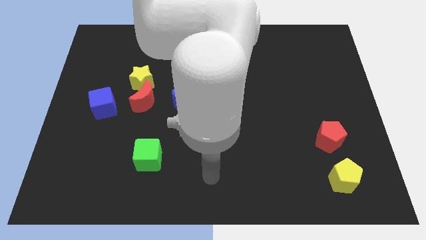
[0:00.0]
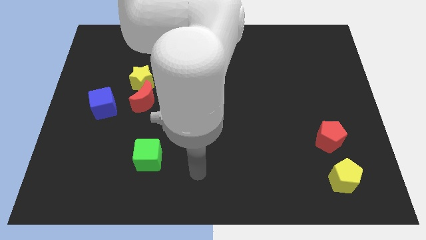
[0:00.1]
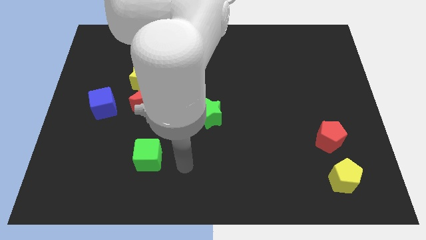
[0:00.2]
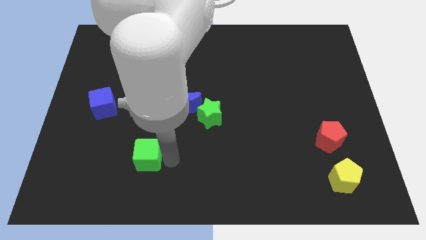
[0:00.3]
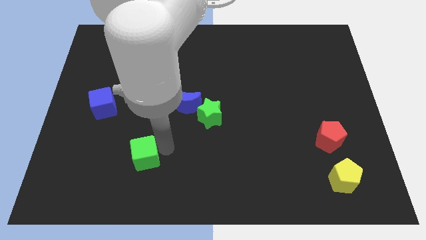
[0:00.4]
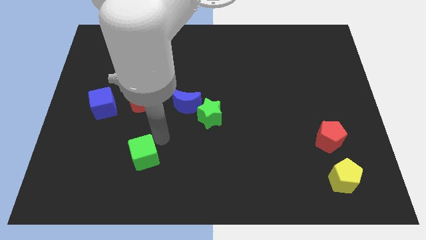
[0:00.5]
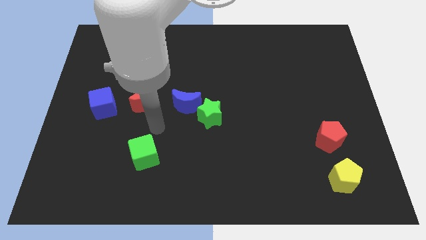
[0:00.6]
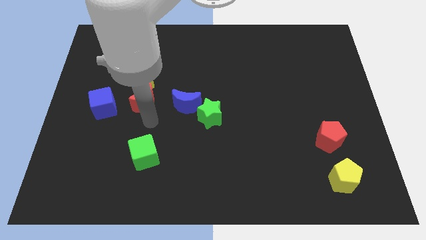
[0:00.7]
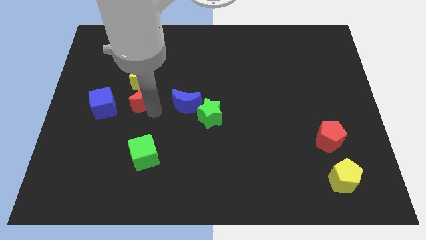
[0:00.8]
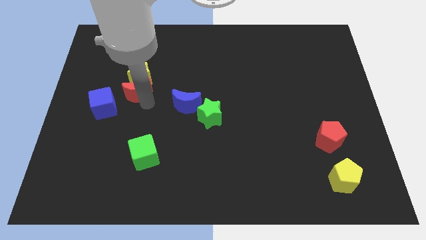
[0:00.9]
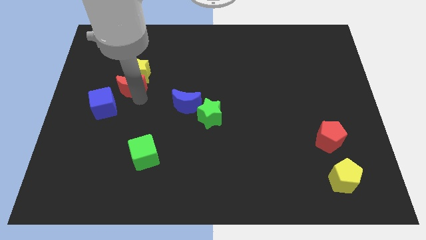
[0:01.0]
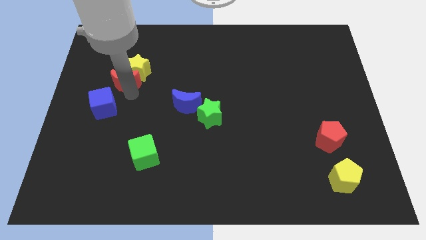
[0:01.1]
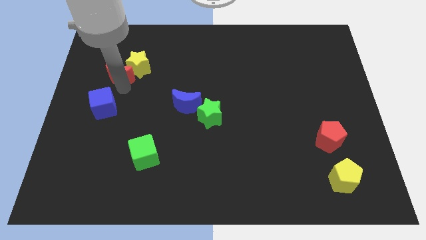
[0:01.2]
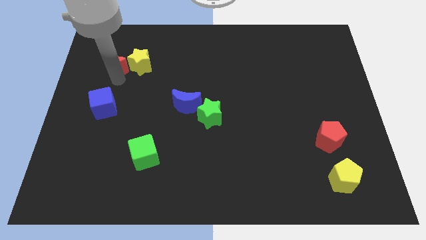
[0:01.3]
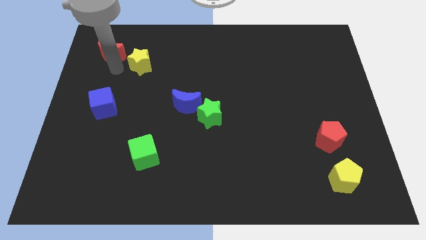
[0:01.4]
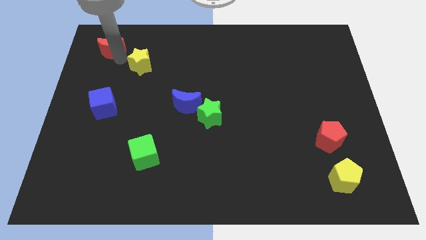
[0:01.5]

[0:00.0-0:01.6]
move the yellow star away from the red moon

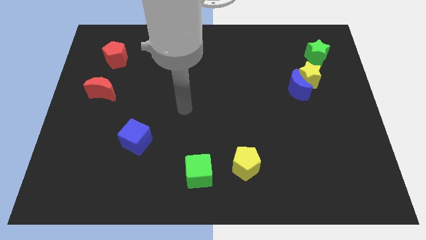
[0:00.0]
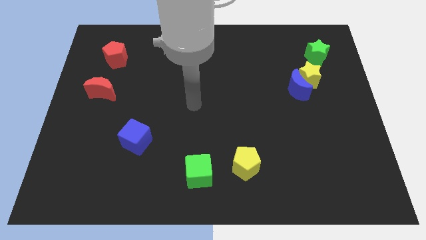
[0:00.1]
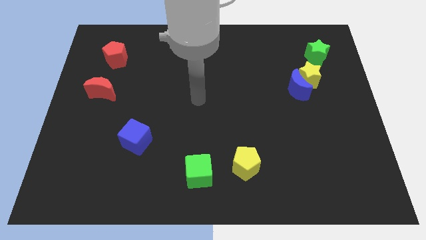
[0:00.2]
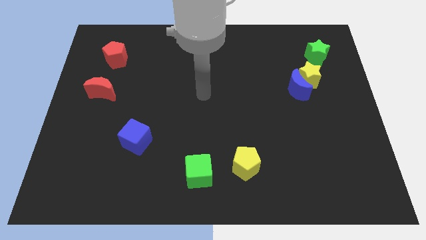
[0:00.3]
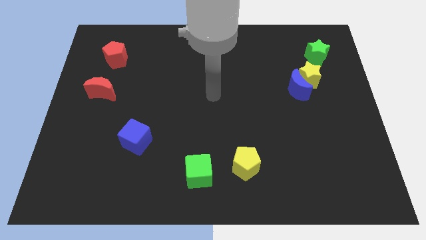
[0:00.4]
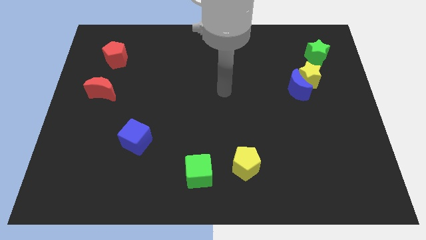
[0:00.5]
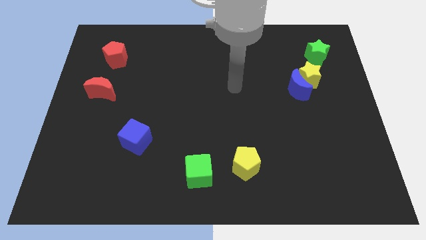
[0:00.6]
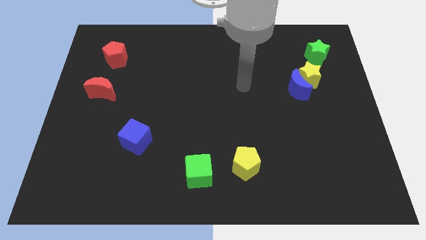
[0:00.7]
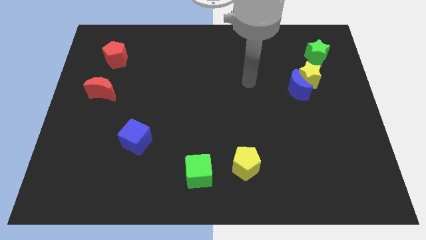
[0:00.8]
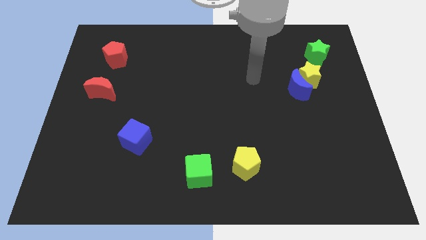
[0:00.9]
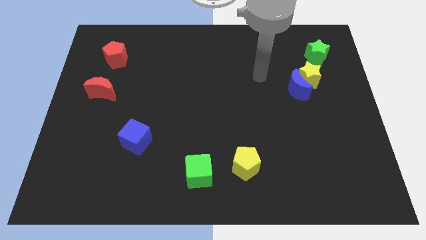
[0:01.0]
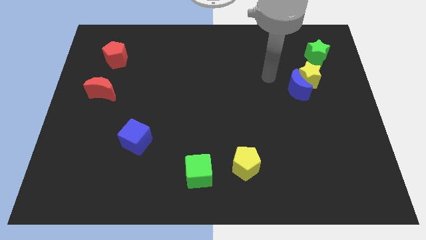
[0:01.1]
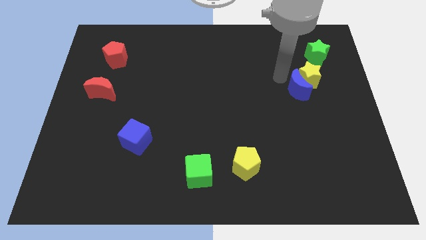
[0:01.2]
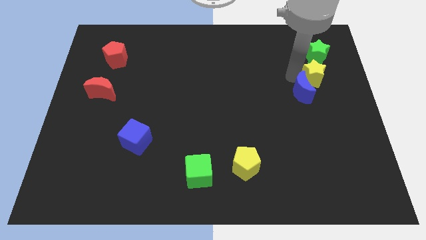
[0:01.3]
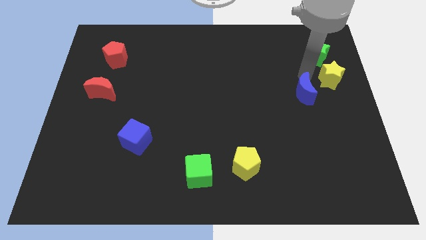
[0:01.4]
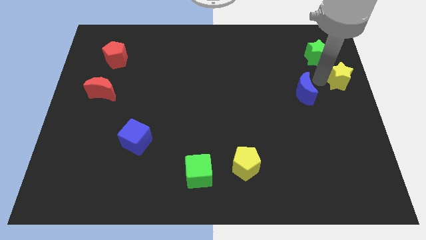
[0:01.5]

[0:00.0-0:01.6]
separate the blue moon from the yellow star

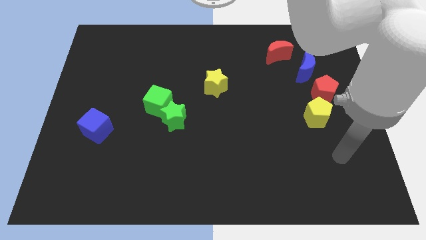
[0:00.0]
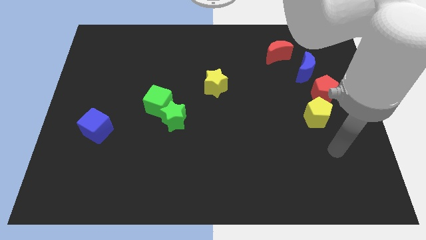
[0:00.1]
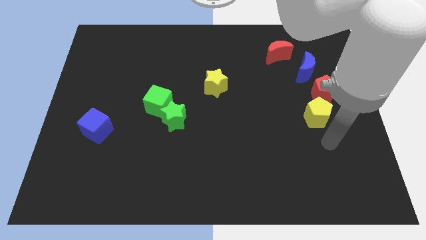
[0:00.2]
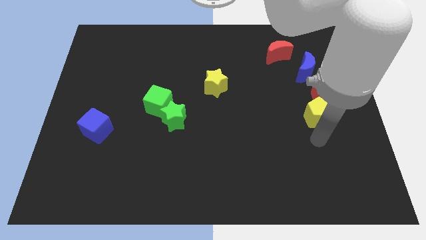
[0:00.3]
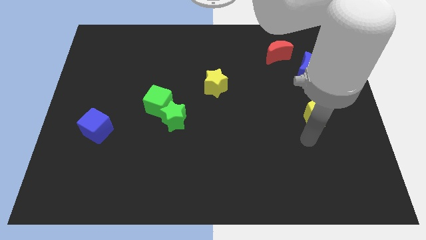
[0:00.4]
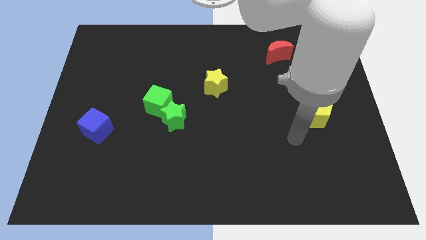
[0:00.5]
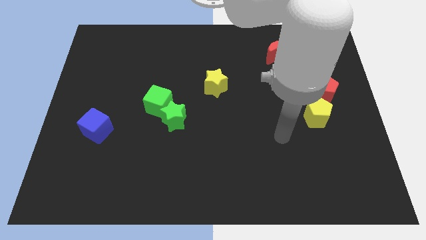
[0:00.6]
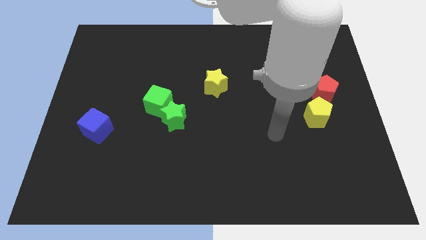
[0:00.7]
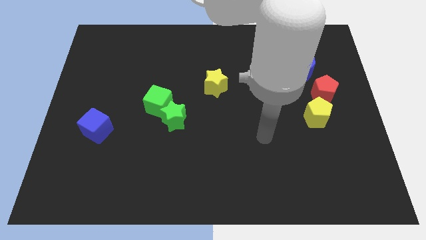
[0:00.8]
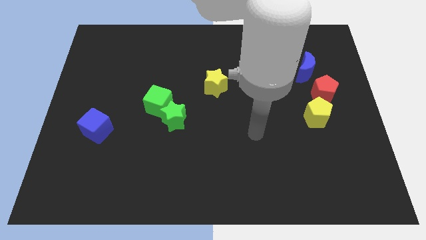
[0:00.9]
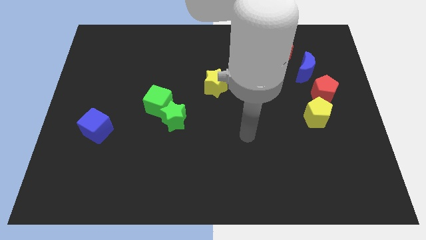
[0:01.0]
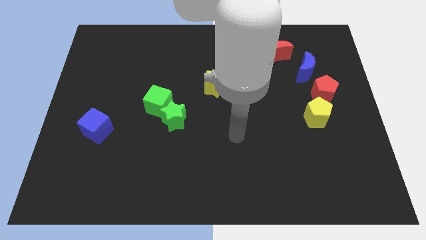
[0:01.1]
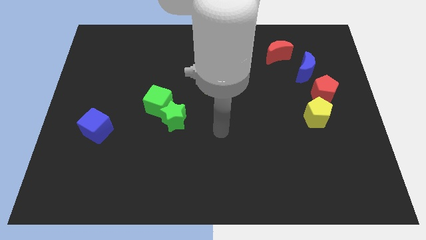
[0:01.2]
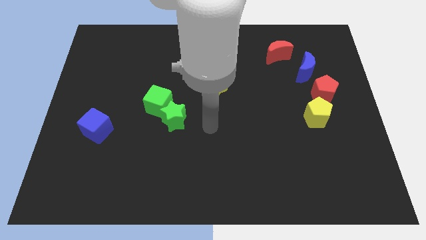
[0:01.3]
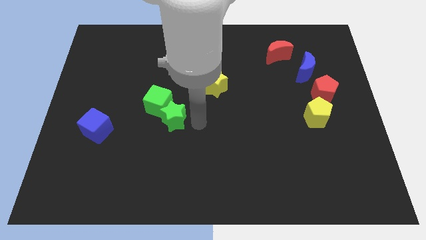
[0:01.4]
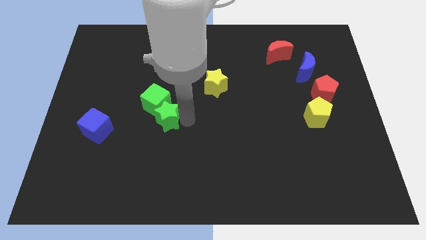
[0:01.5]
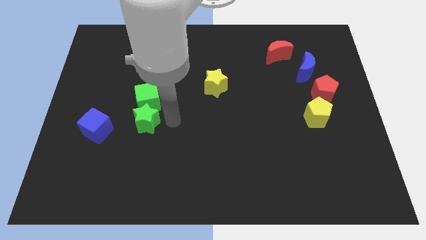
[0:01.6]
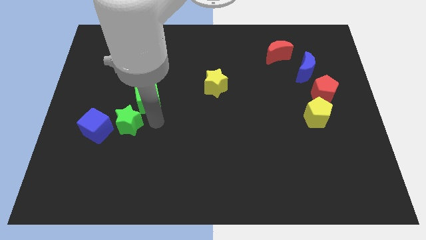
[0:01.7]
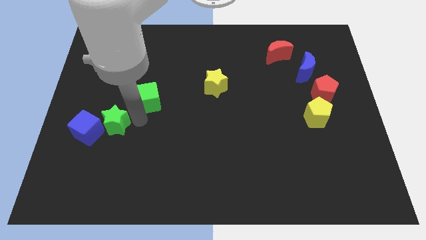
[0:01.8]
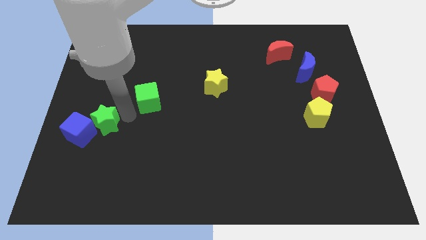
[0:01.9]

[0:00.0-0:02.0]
separate the green cube from the green star

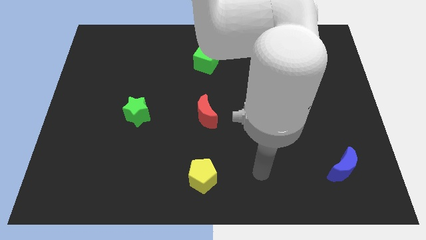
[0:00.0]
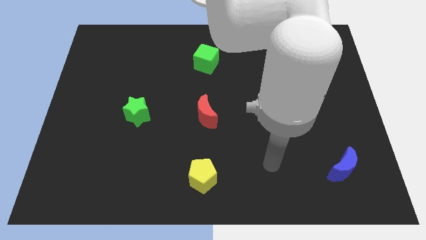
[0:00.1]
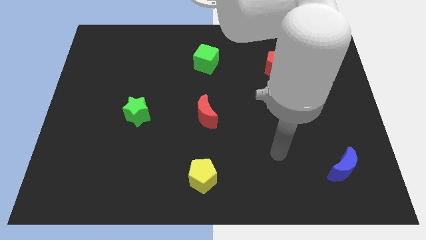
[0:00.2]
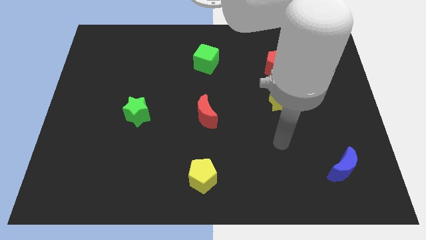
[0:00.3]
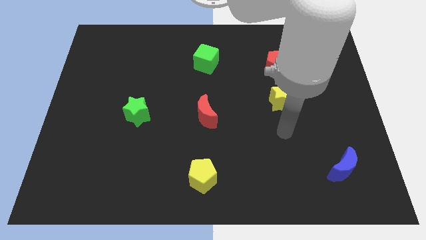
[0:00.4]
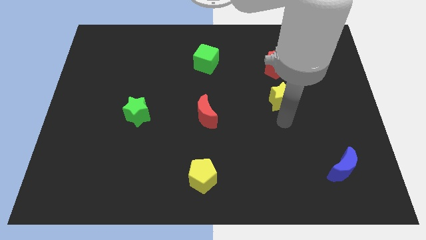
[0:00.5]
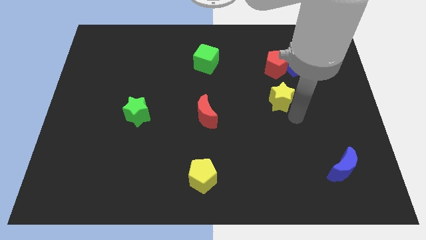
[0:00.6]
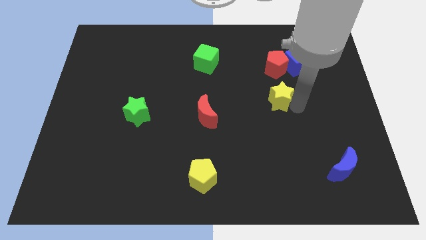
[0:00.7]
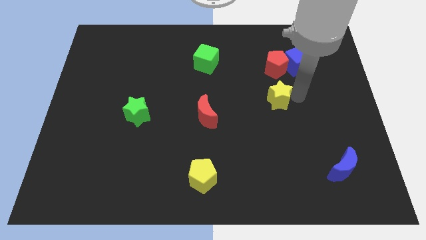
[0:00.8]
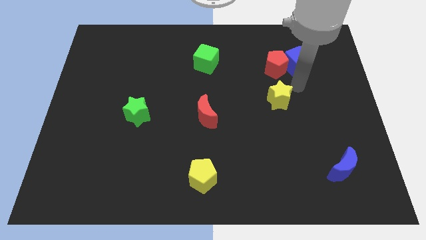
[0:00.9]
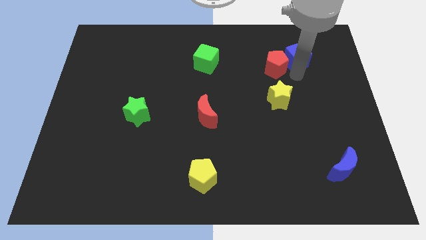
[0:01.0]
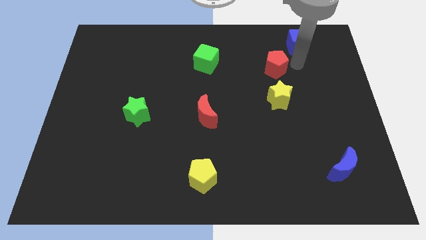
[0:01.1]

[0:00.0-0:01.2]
move the red pentagon away from the blue cube

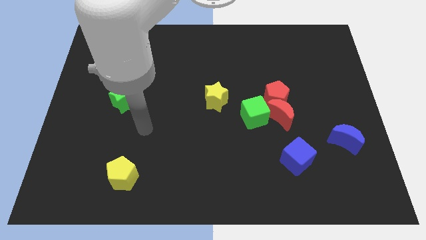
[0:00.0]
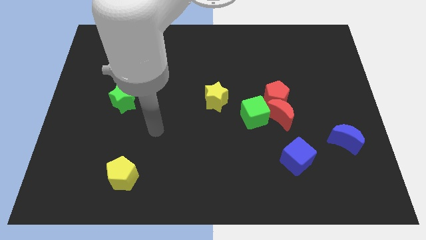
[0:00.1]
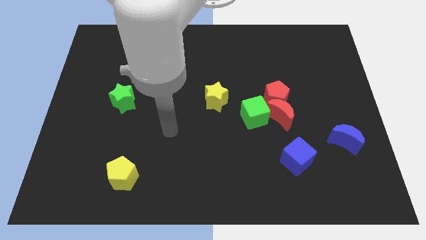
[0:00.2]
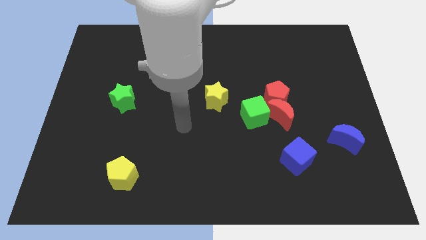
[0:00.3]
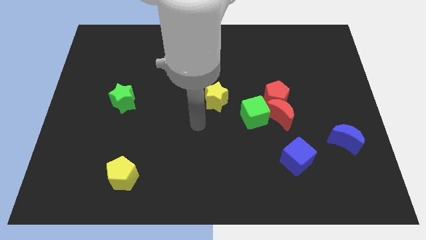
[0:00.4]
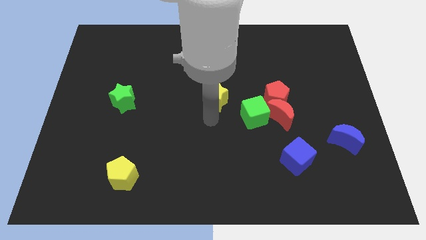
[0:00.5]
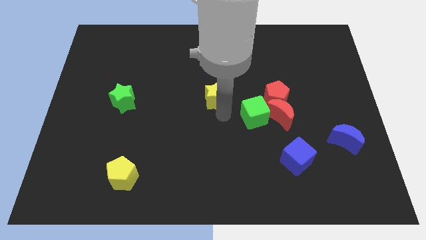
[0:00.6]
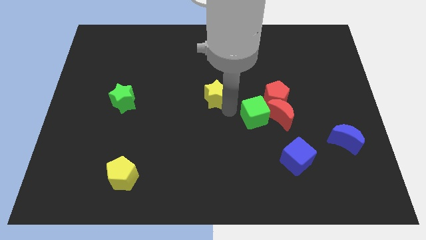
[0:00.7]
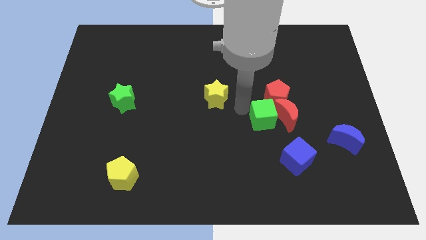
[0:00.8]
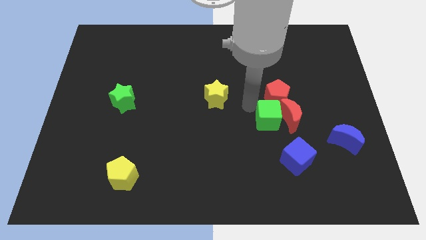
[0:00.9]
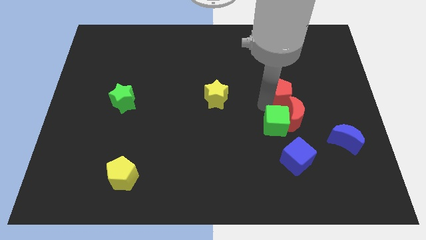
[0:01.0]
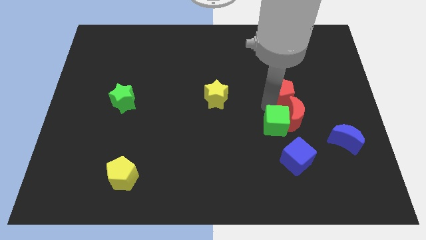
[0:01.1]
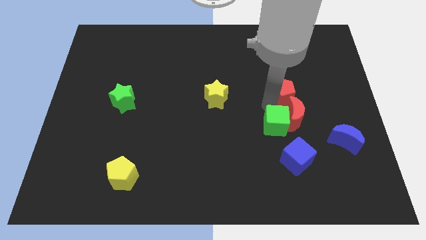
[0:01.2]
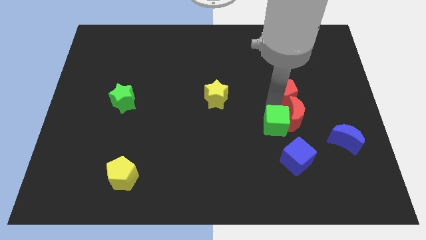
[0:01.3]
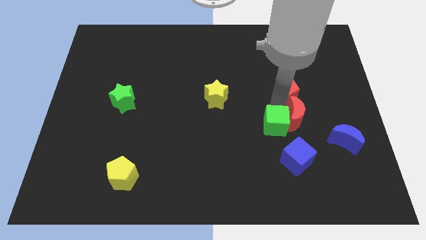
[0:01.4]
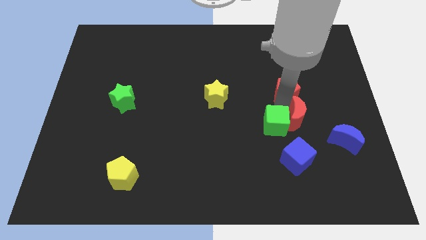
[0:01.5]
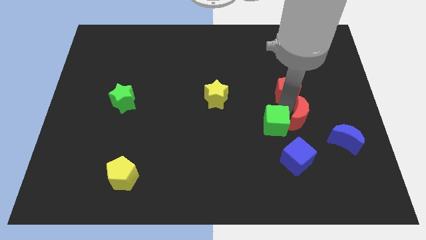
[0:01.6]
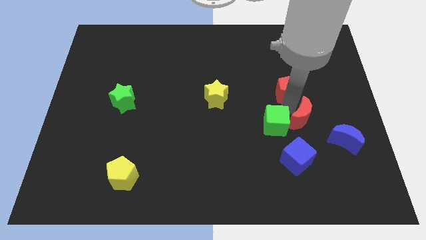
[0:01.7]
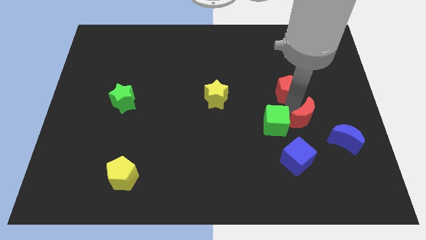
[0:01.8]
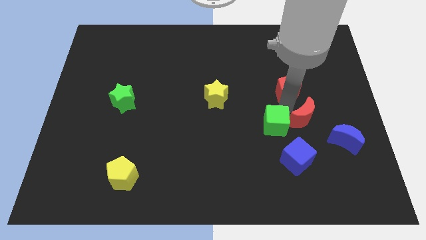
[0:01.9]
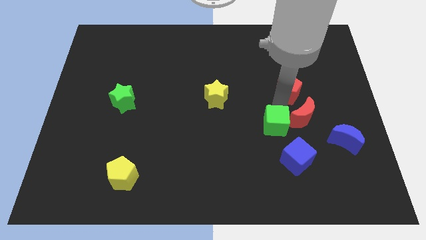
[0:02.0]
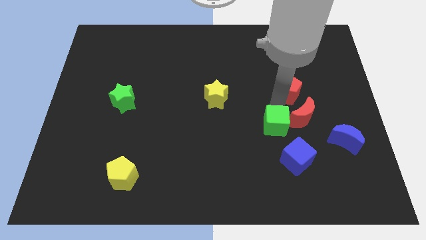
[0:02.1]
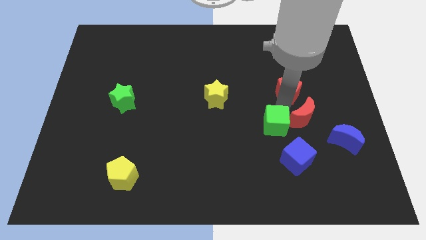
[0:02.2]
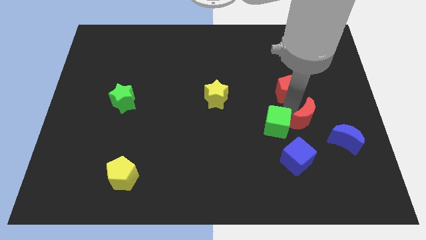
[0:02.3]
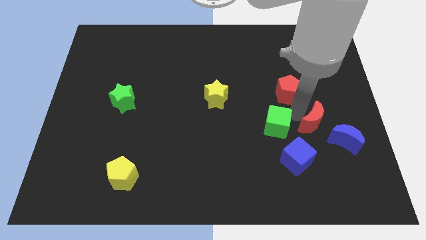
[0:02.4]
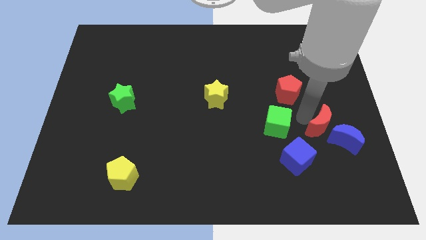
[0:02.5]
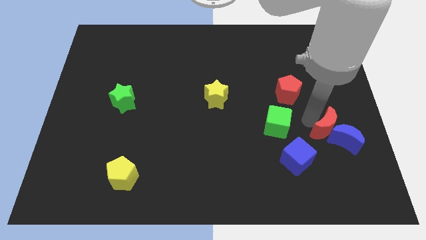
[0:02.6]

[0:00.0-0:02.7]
separate the red moon from the red pentagon and green cube

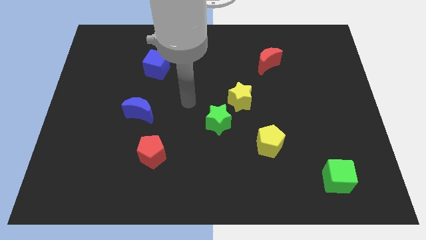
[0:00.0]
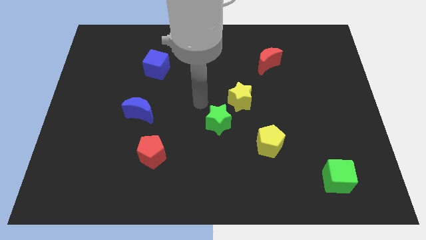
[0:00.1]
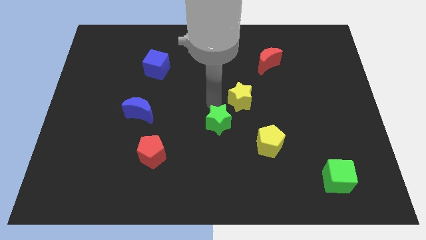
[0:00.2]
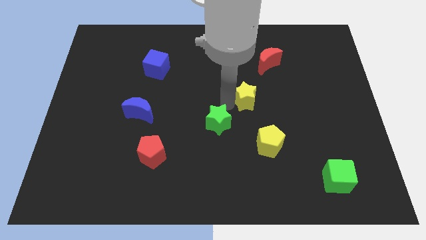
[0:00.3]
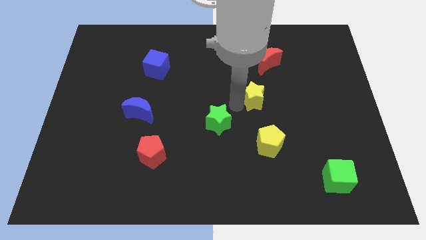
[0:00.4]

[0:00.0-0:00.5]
pull the green star apart from the yellow star
